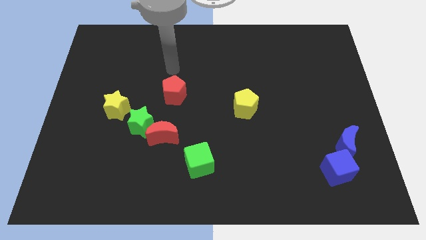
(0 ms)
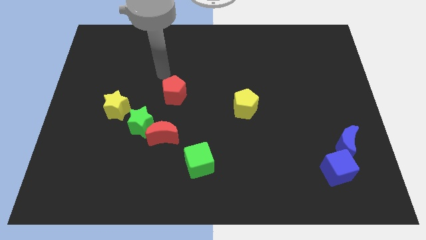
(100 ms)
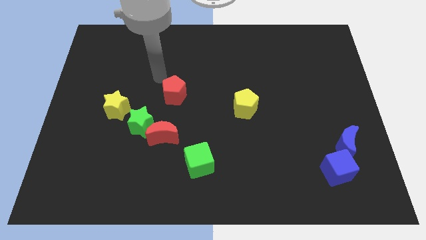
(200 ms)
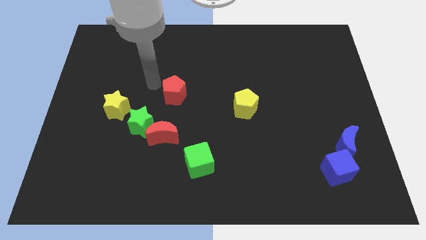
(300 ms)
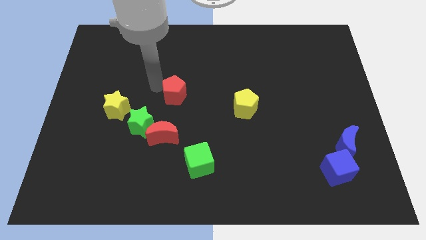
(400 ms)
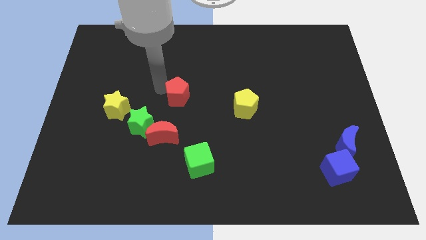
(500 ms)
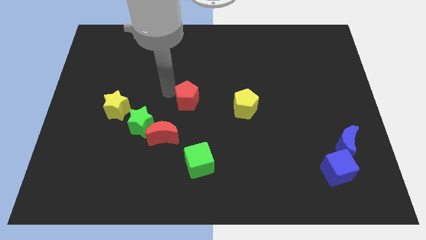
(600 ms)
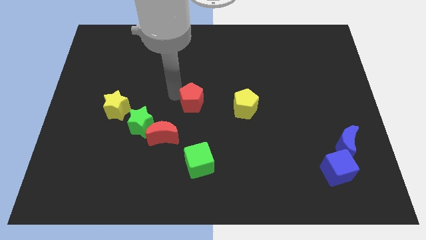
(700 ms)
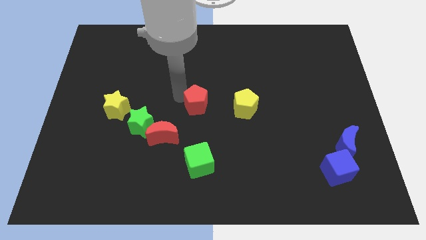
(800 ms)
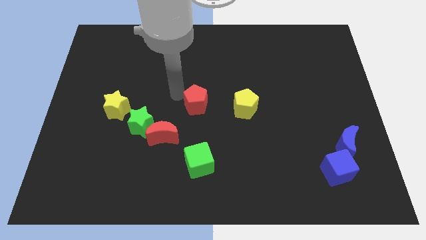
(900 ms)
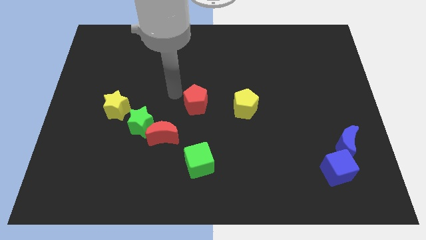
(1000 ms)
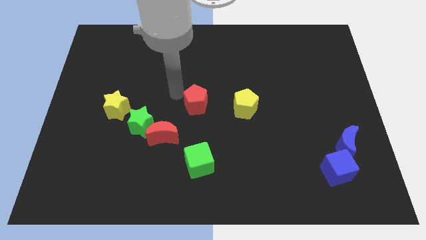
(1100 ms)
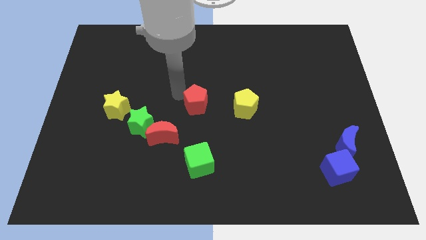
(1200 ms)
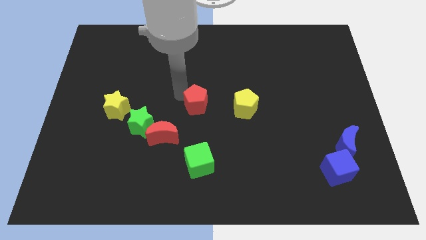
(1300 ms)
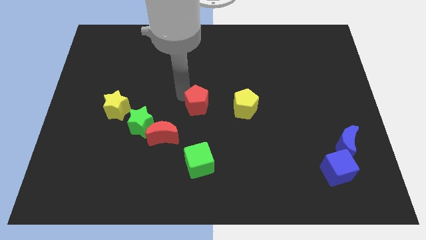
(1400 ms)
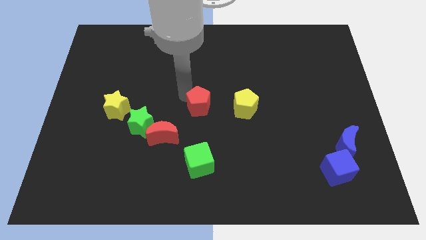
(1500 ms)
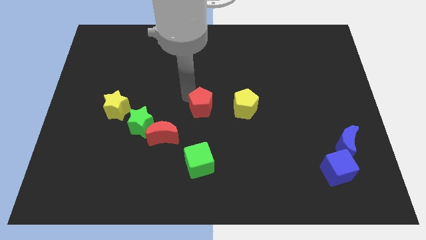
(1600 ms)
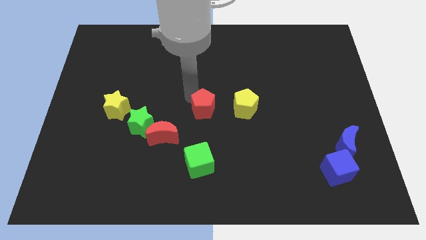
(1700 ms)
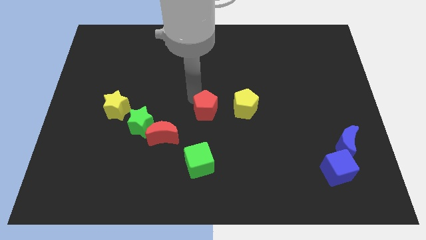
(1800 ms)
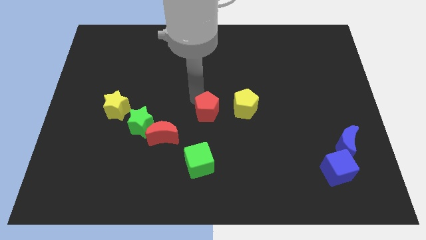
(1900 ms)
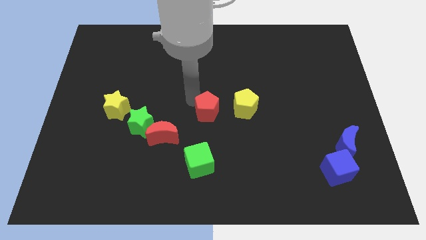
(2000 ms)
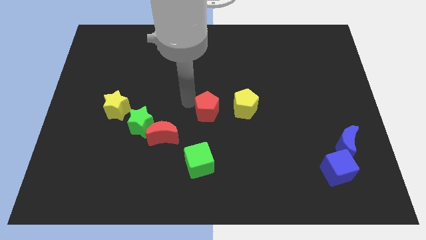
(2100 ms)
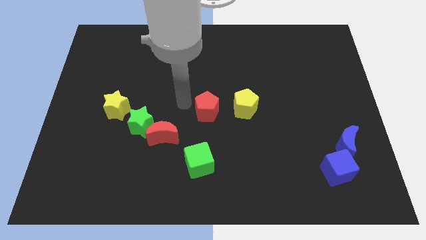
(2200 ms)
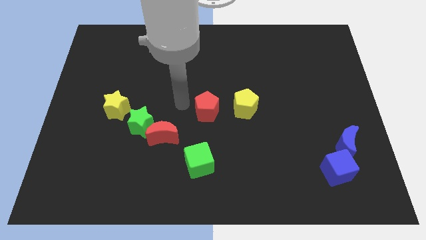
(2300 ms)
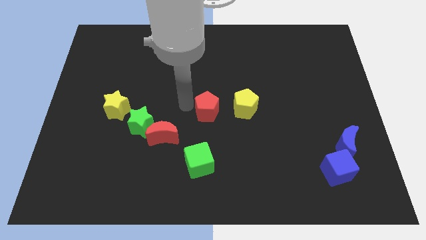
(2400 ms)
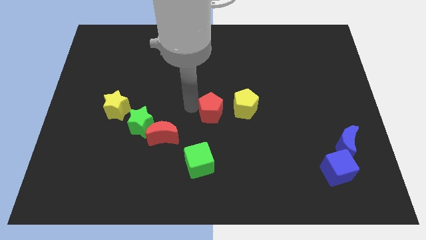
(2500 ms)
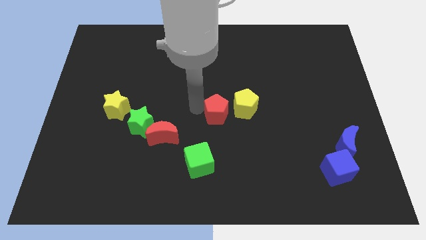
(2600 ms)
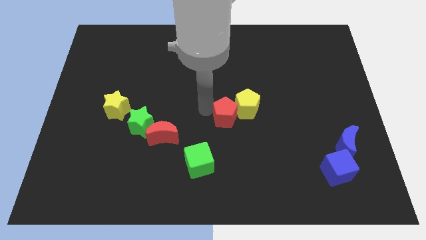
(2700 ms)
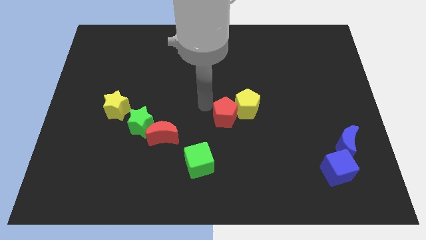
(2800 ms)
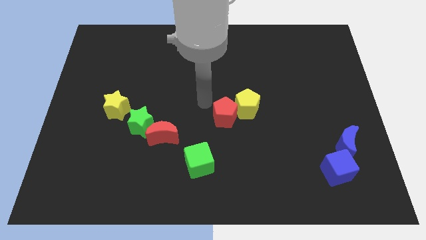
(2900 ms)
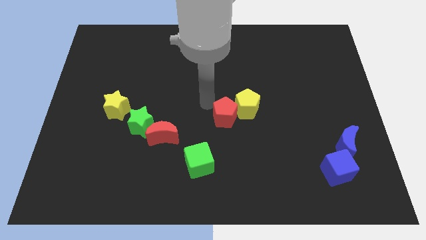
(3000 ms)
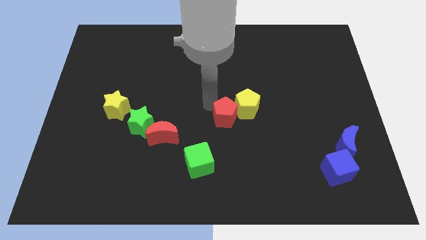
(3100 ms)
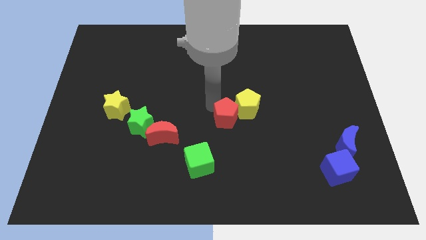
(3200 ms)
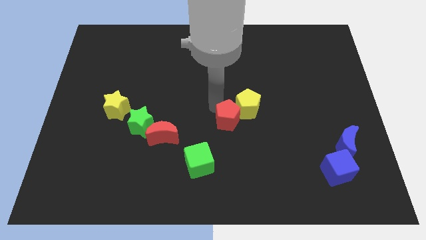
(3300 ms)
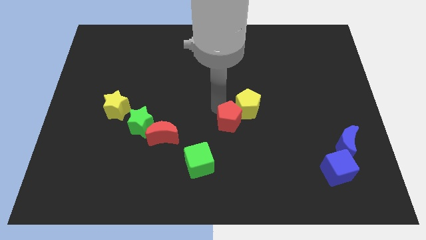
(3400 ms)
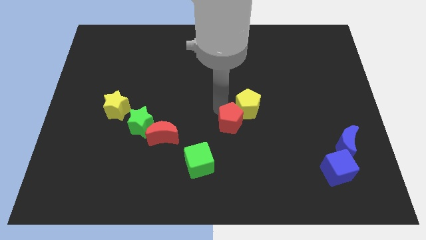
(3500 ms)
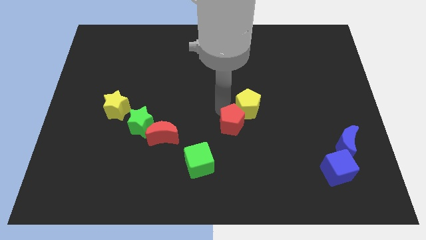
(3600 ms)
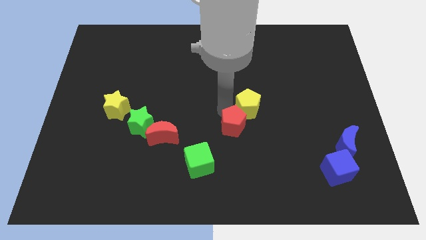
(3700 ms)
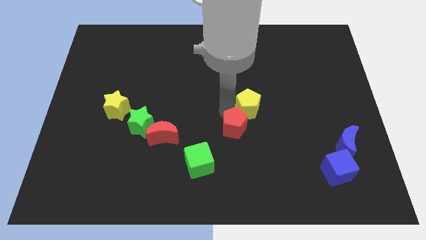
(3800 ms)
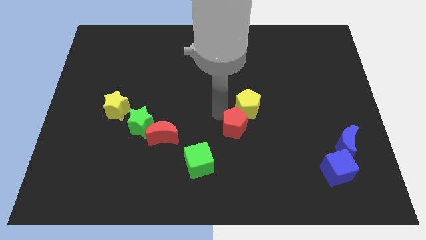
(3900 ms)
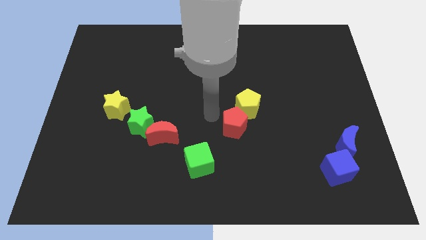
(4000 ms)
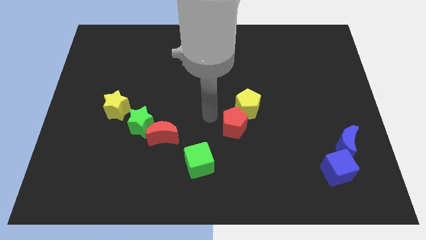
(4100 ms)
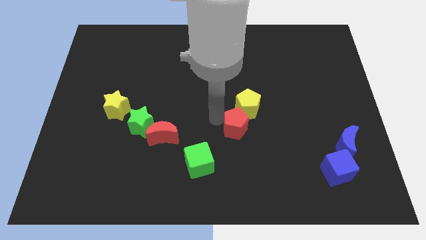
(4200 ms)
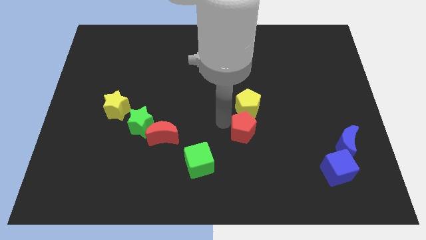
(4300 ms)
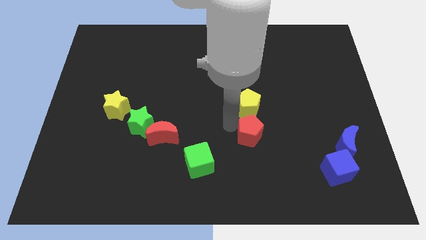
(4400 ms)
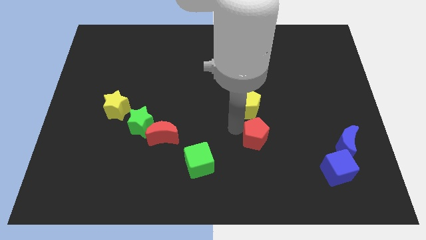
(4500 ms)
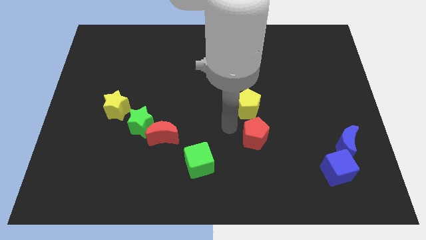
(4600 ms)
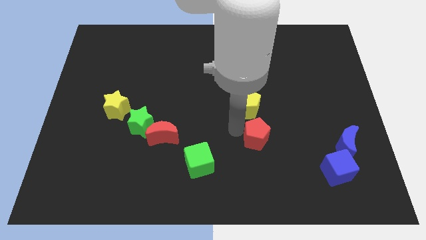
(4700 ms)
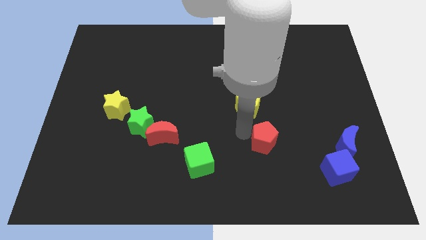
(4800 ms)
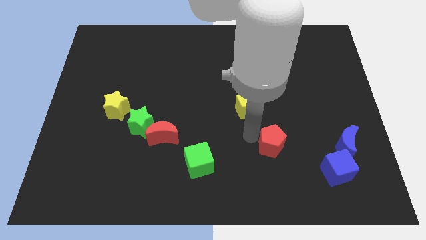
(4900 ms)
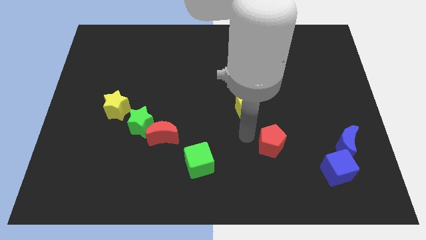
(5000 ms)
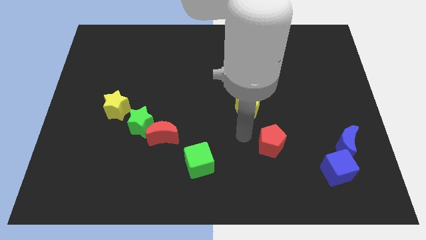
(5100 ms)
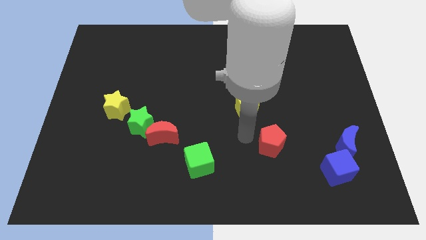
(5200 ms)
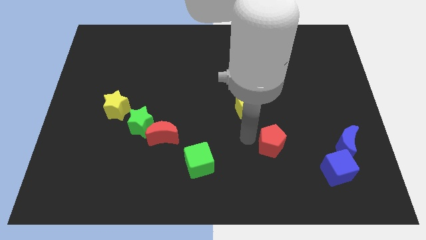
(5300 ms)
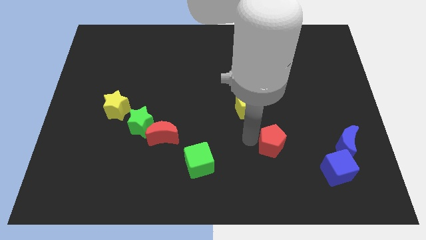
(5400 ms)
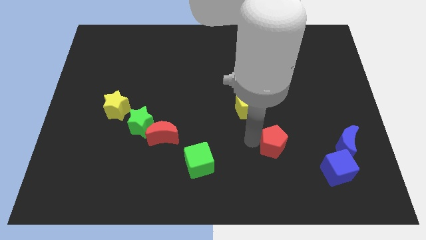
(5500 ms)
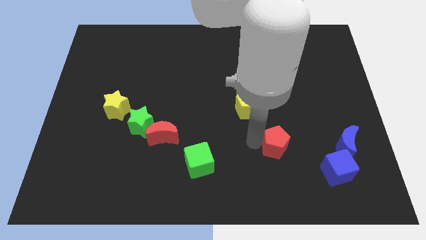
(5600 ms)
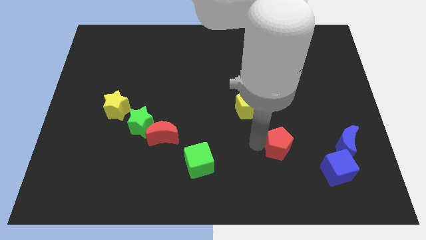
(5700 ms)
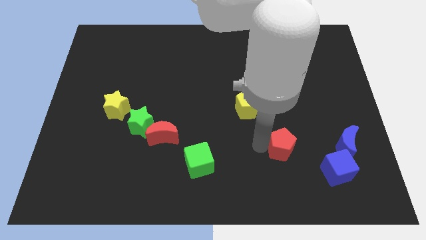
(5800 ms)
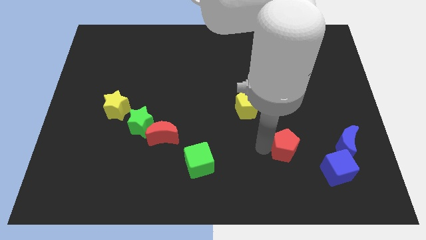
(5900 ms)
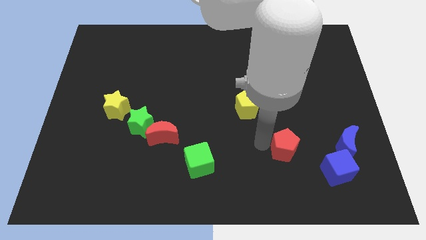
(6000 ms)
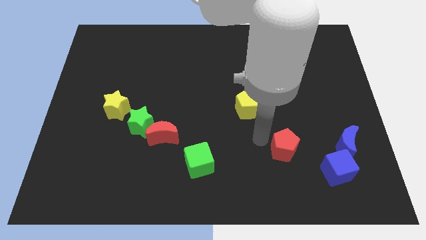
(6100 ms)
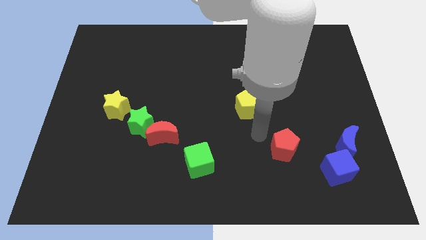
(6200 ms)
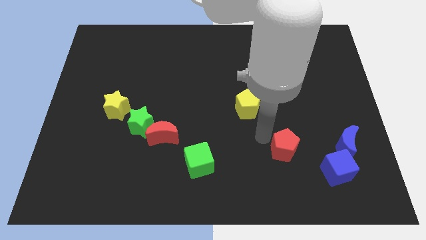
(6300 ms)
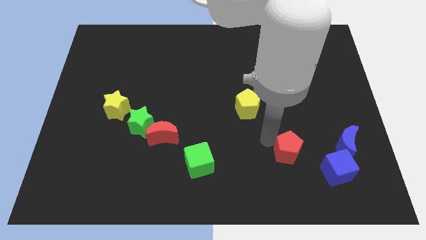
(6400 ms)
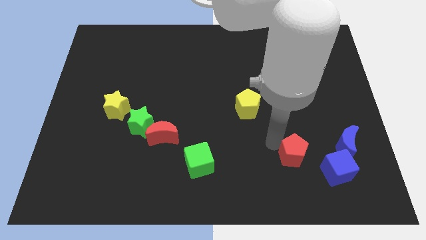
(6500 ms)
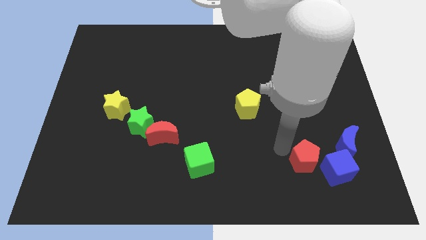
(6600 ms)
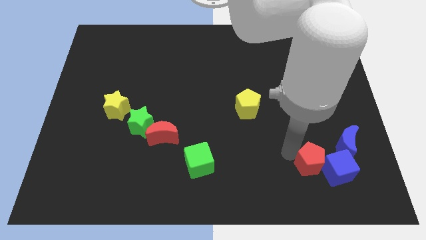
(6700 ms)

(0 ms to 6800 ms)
move the red pentagon next to the blue cube

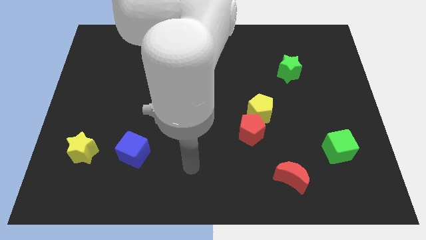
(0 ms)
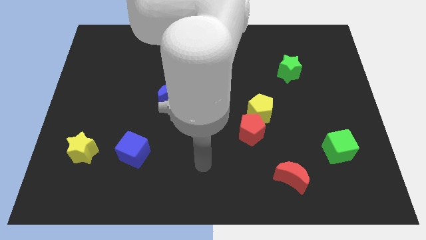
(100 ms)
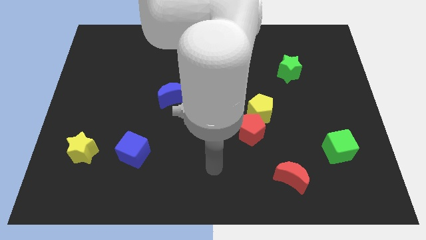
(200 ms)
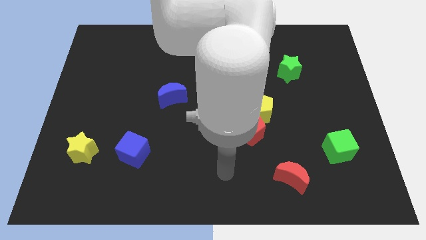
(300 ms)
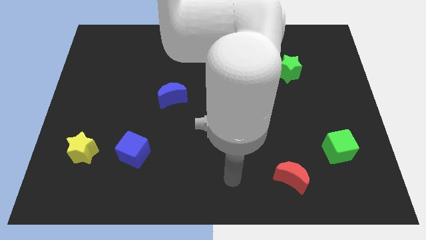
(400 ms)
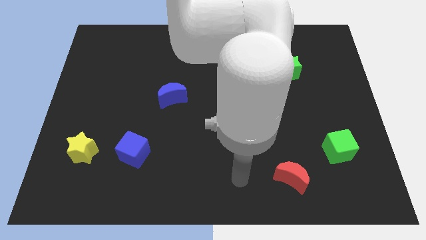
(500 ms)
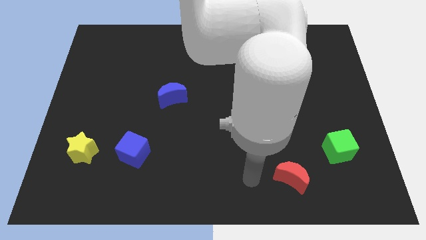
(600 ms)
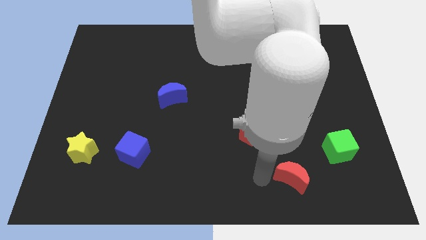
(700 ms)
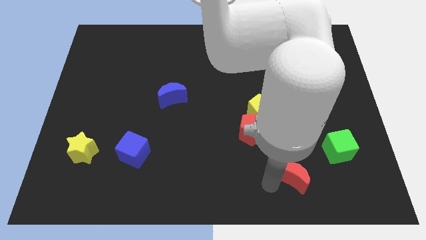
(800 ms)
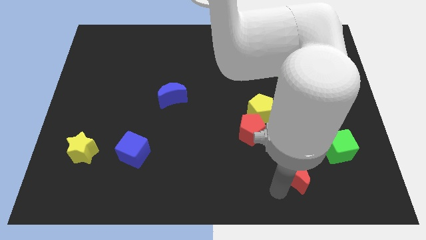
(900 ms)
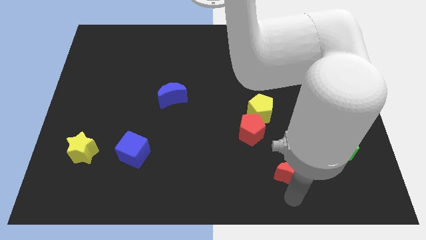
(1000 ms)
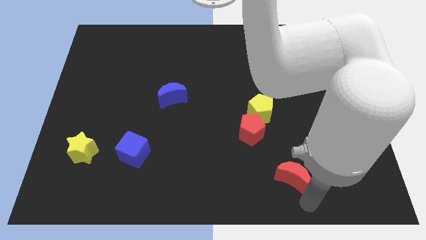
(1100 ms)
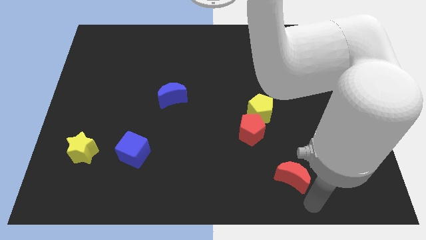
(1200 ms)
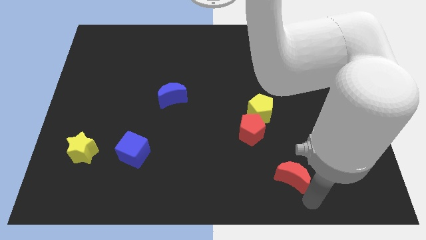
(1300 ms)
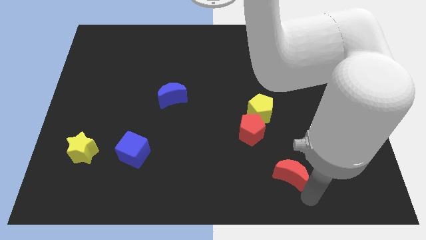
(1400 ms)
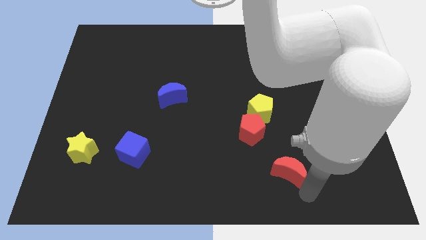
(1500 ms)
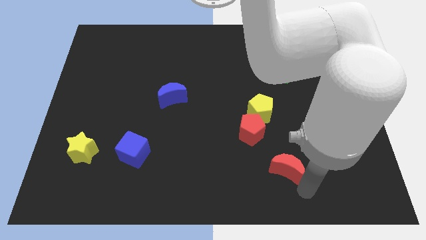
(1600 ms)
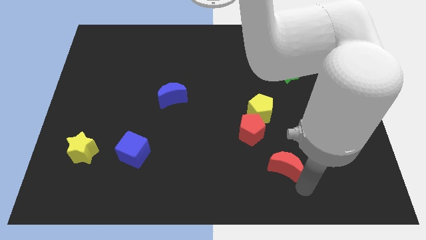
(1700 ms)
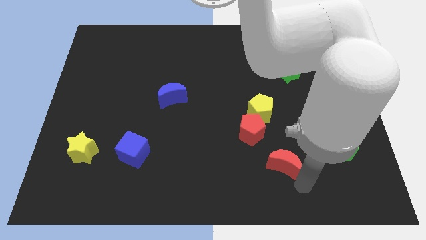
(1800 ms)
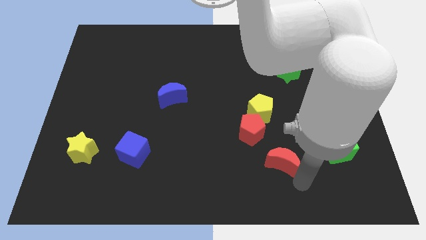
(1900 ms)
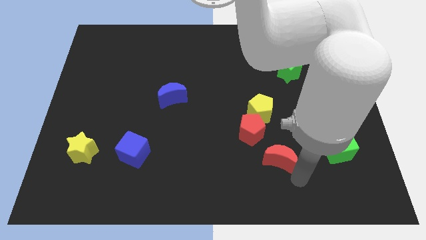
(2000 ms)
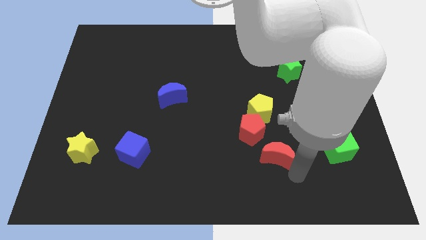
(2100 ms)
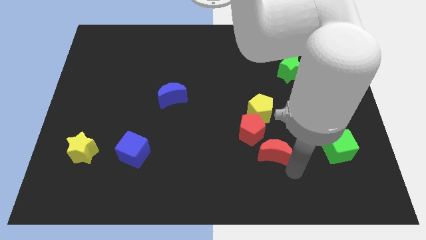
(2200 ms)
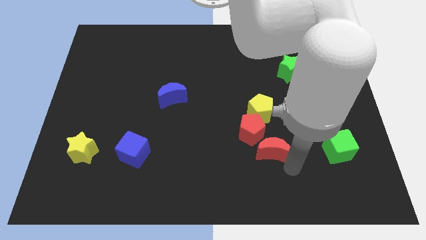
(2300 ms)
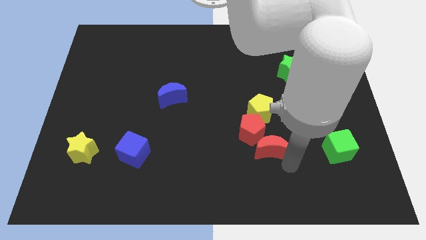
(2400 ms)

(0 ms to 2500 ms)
slide the red moon next to the red pentagon
